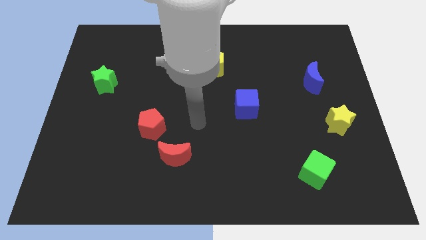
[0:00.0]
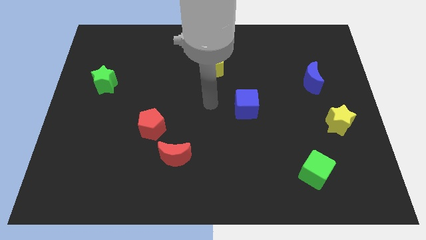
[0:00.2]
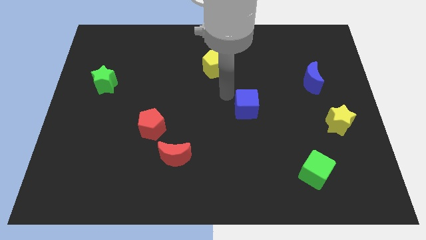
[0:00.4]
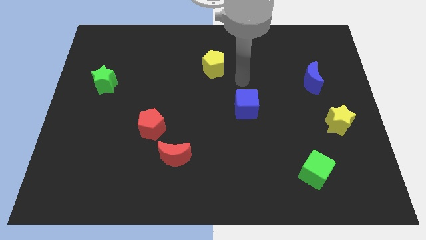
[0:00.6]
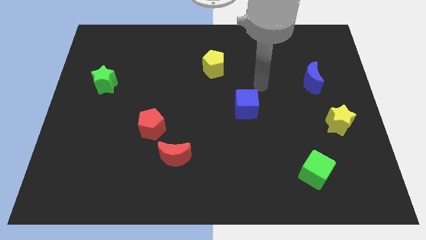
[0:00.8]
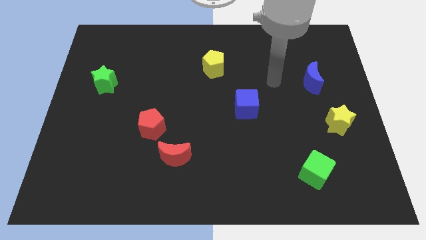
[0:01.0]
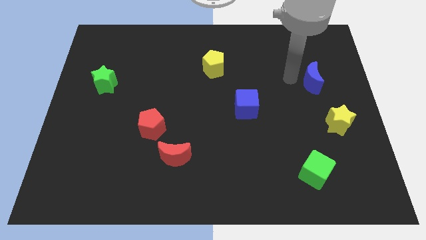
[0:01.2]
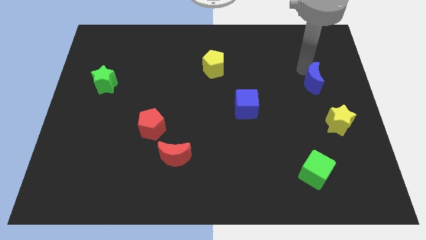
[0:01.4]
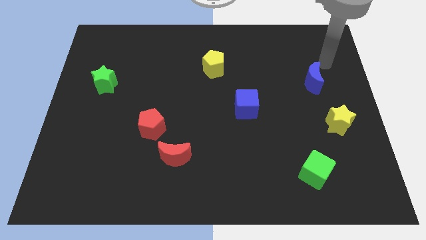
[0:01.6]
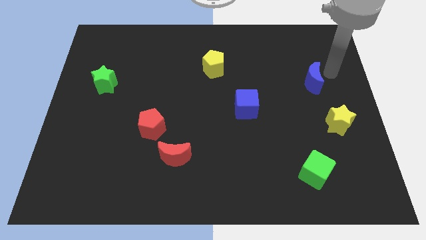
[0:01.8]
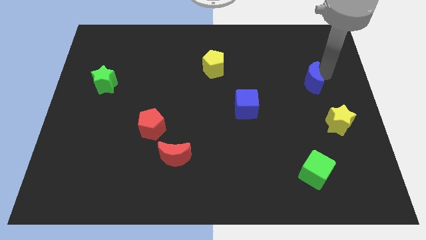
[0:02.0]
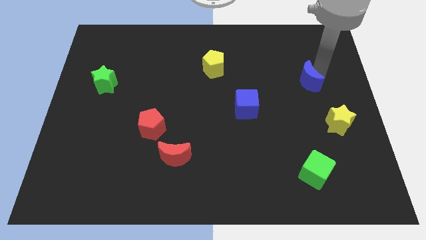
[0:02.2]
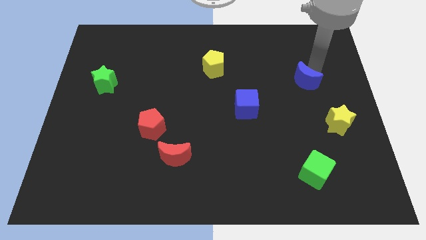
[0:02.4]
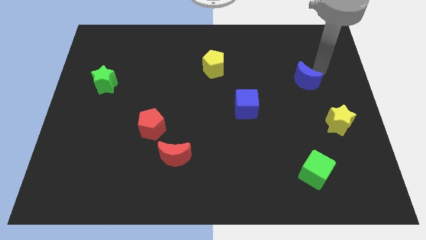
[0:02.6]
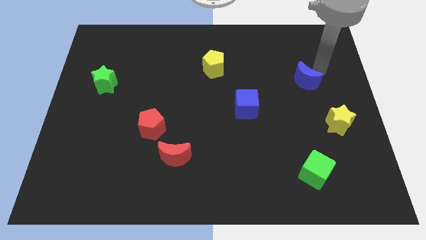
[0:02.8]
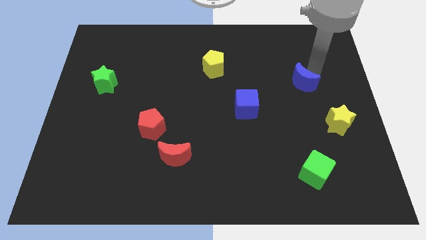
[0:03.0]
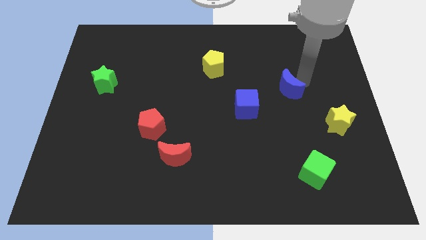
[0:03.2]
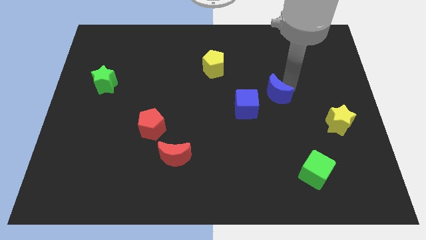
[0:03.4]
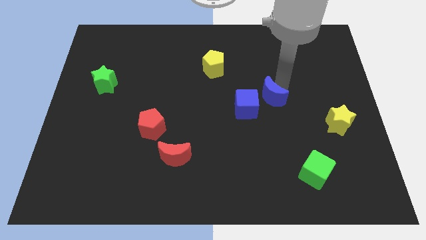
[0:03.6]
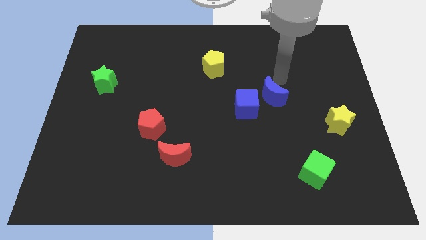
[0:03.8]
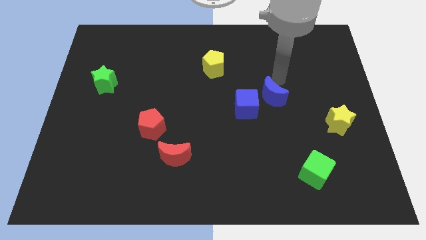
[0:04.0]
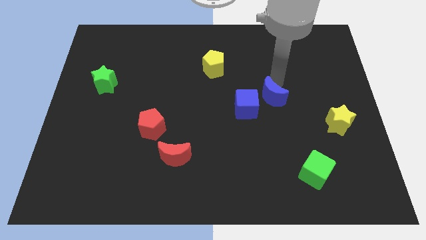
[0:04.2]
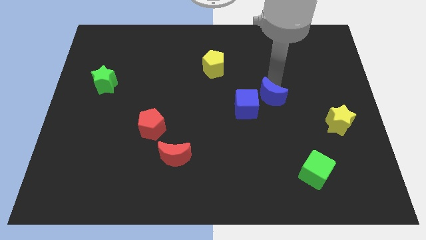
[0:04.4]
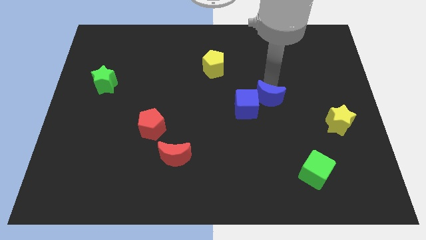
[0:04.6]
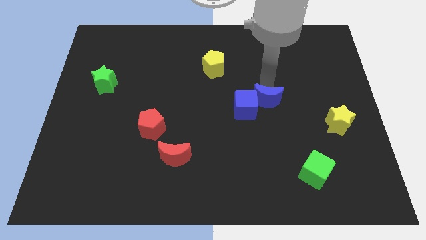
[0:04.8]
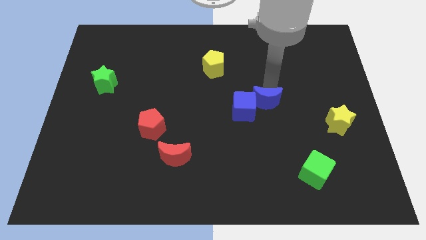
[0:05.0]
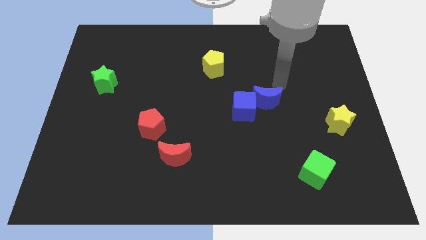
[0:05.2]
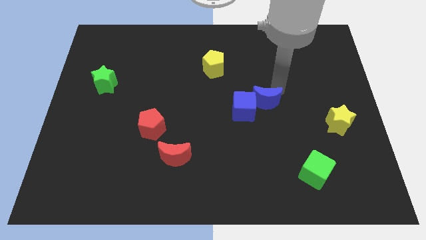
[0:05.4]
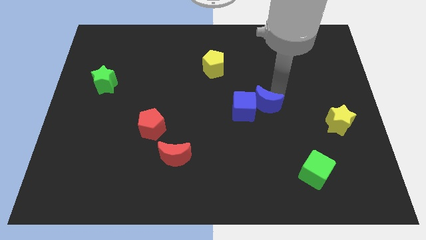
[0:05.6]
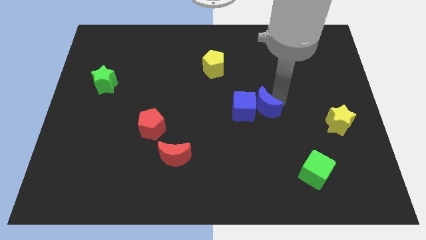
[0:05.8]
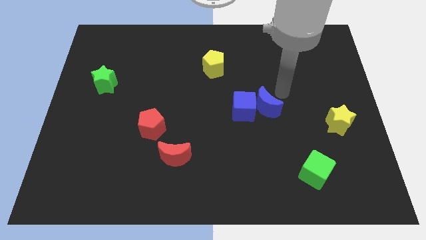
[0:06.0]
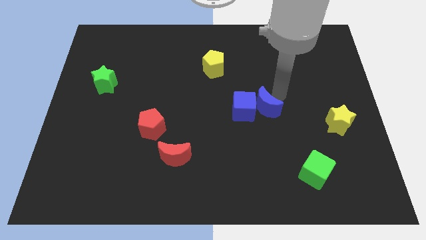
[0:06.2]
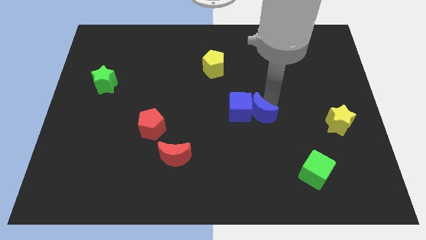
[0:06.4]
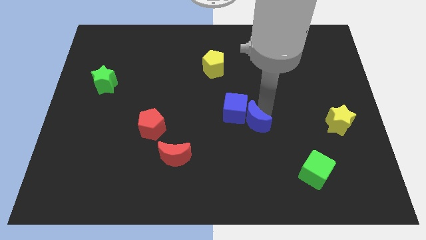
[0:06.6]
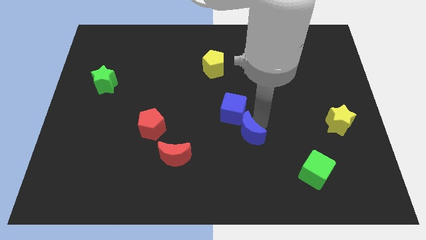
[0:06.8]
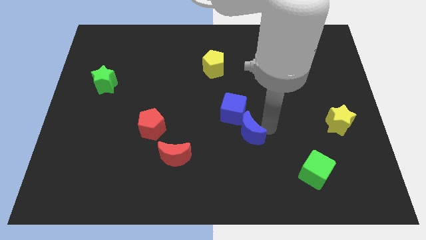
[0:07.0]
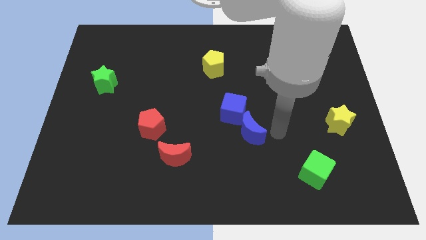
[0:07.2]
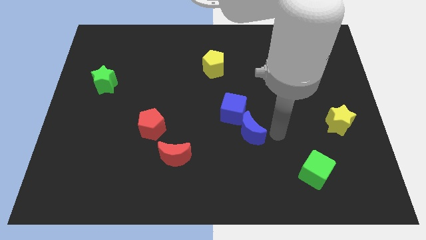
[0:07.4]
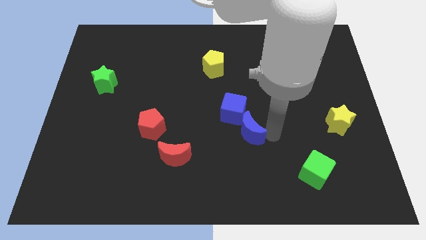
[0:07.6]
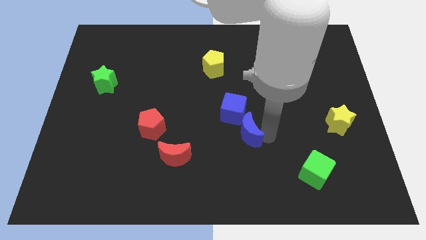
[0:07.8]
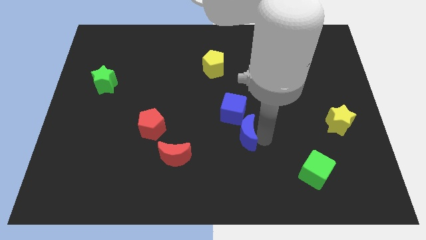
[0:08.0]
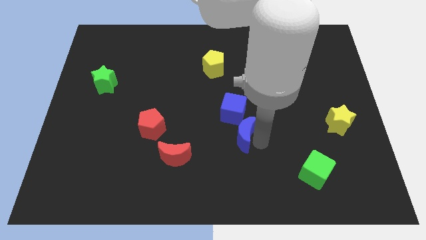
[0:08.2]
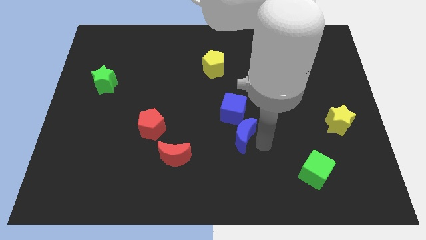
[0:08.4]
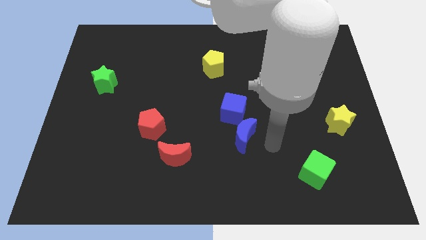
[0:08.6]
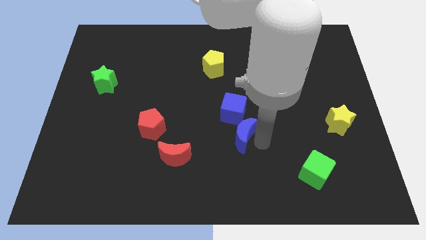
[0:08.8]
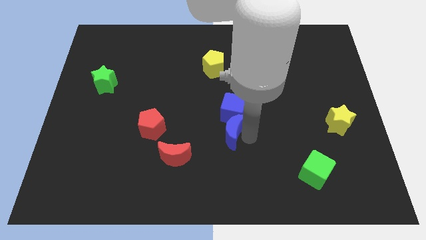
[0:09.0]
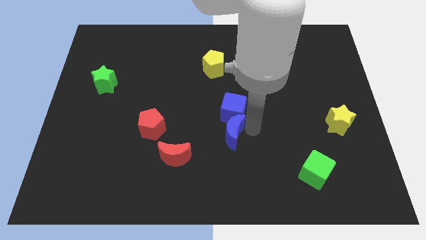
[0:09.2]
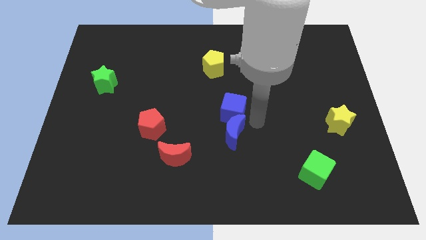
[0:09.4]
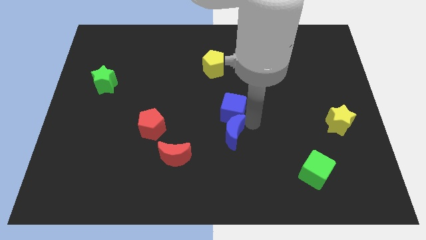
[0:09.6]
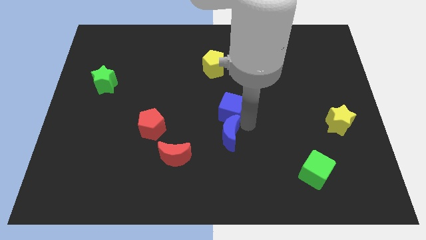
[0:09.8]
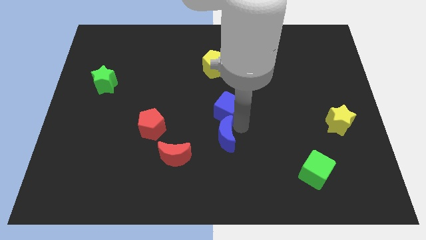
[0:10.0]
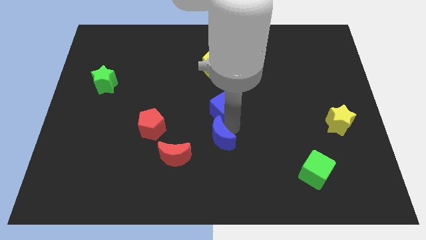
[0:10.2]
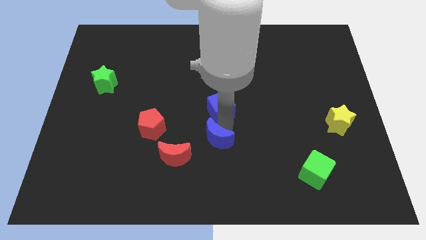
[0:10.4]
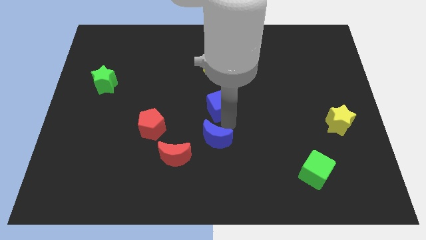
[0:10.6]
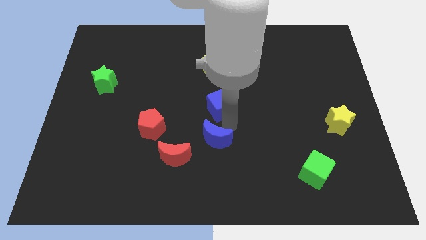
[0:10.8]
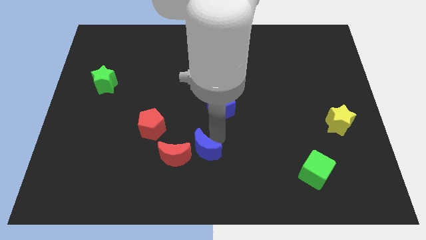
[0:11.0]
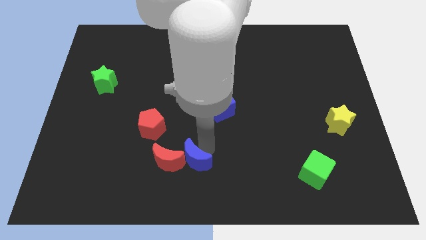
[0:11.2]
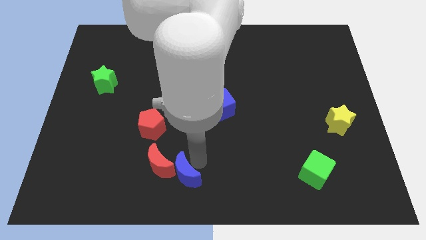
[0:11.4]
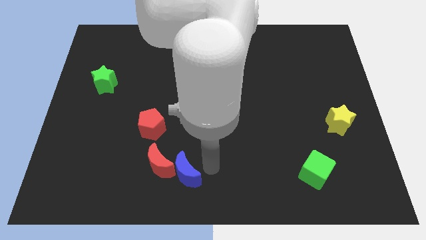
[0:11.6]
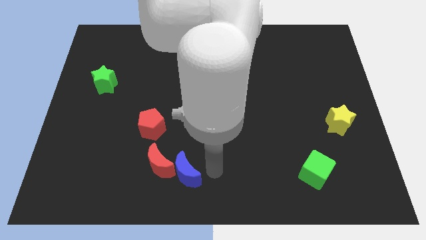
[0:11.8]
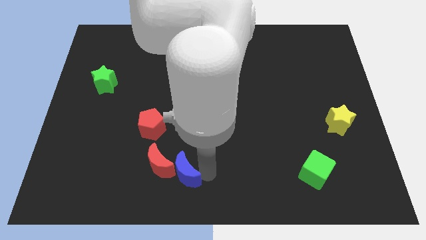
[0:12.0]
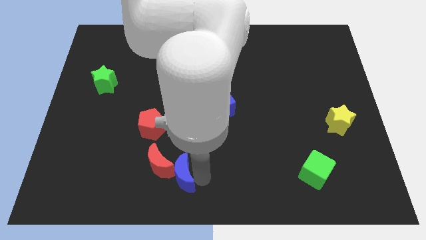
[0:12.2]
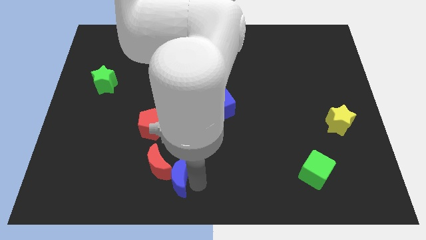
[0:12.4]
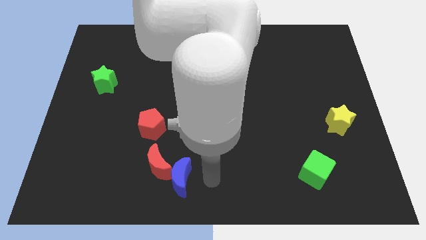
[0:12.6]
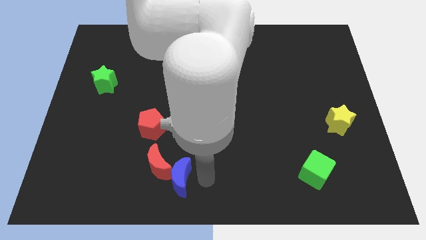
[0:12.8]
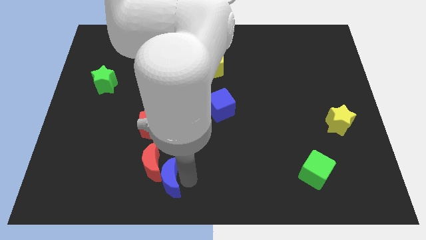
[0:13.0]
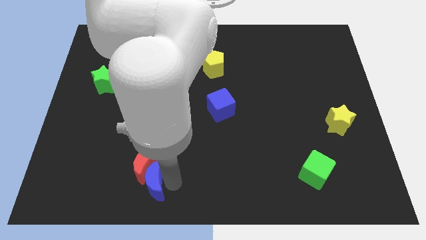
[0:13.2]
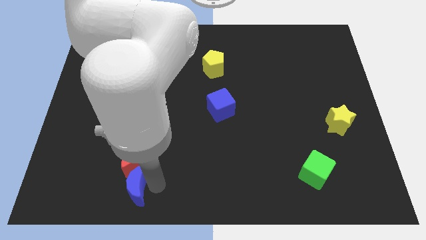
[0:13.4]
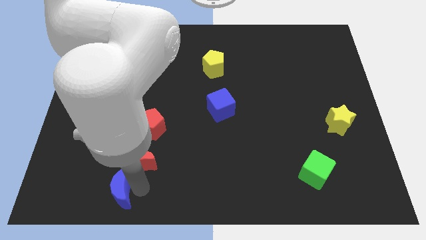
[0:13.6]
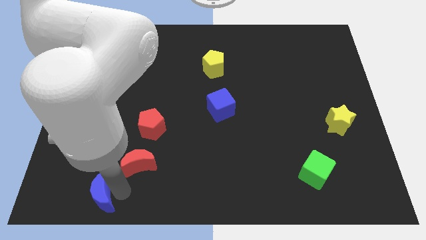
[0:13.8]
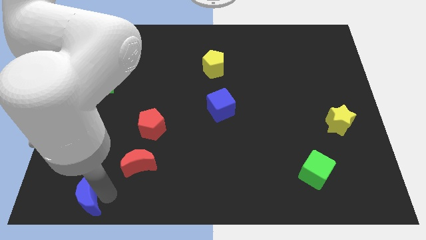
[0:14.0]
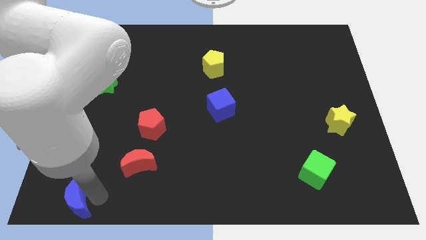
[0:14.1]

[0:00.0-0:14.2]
push the blue moon to the lower left corner
